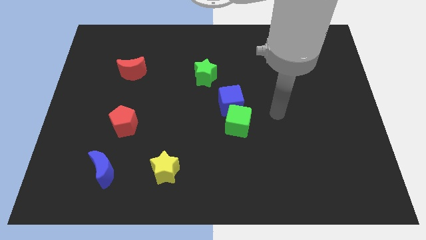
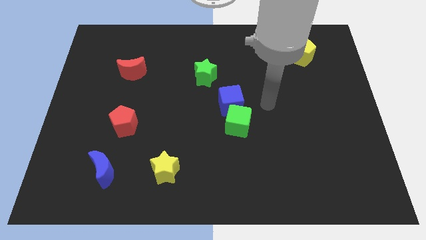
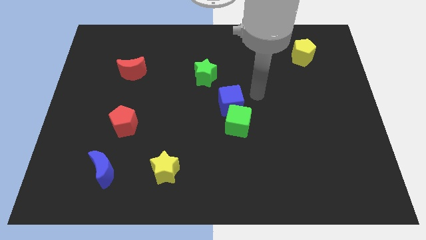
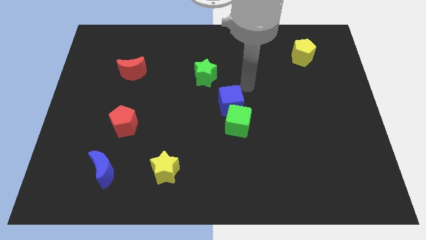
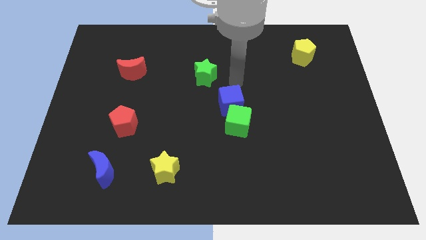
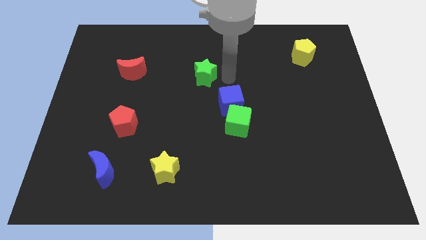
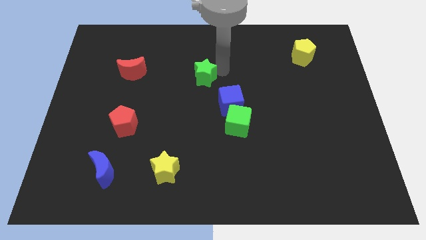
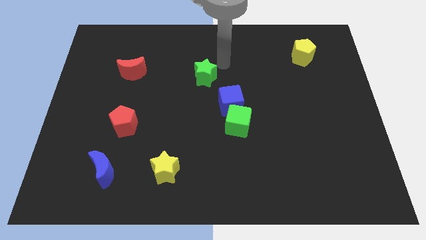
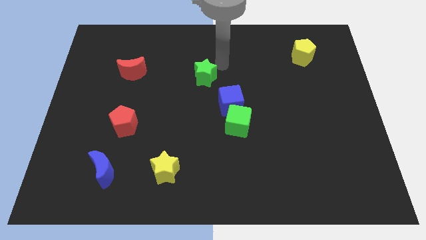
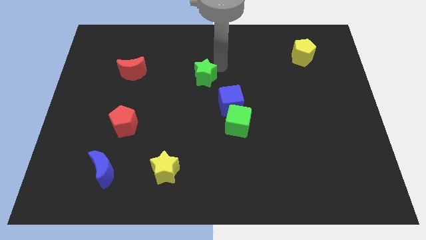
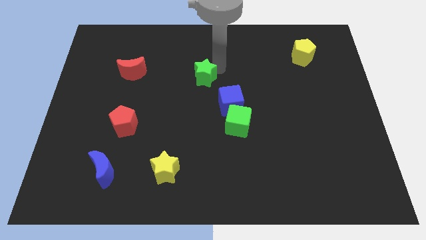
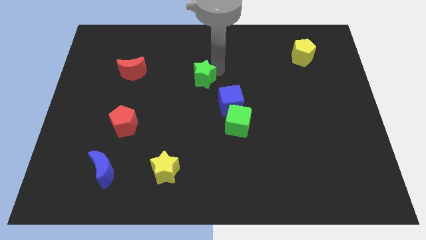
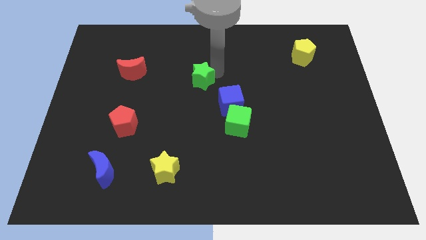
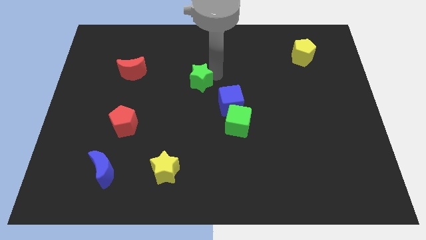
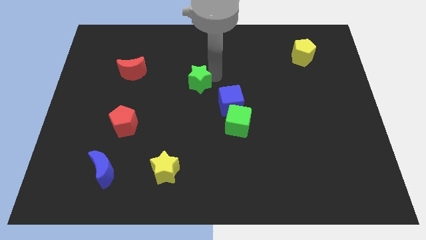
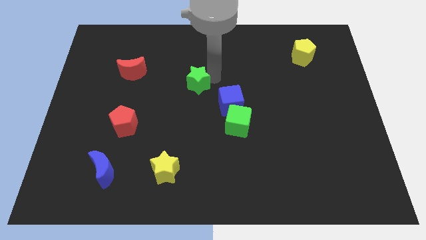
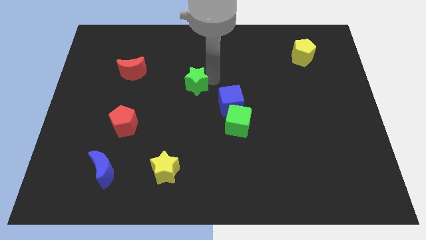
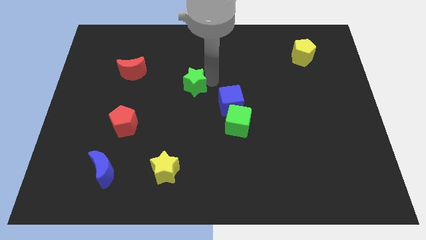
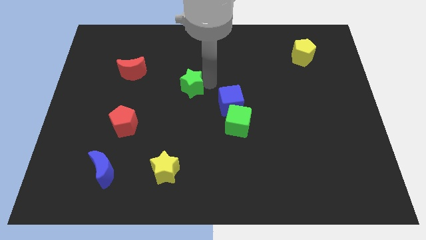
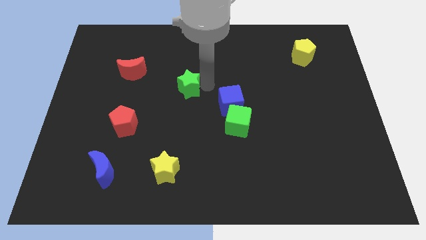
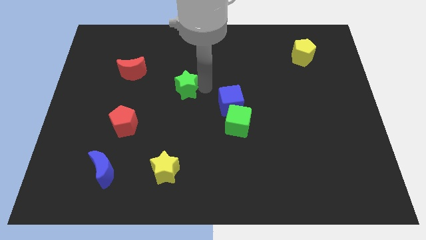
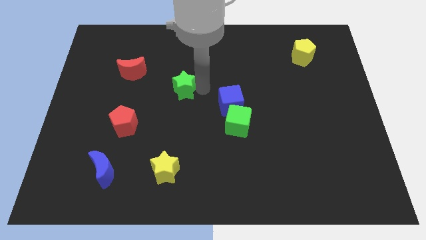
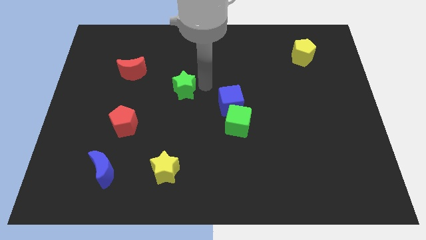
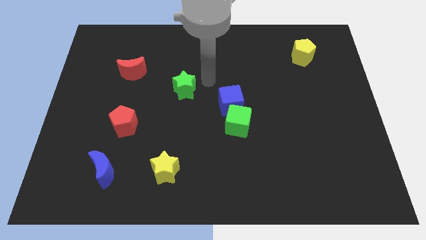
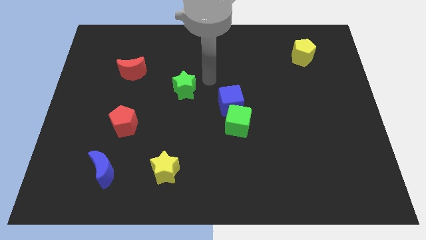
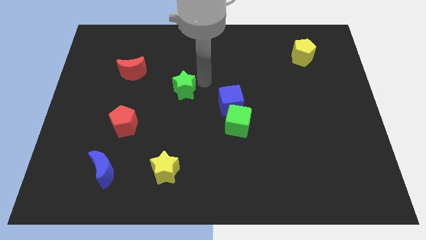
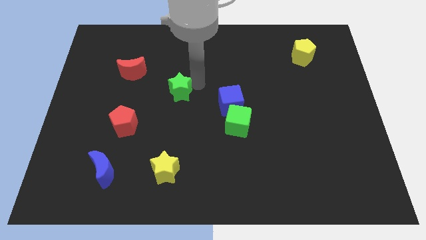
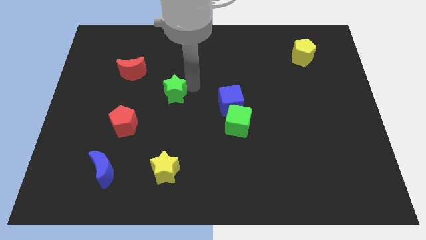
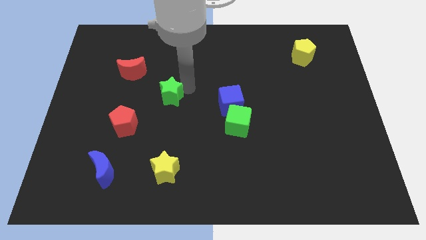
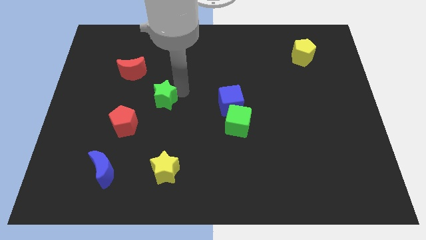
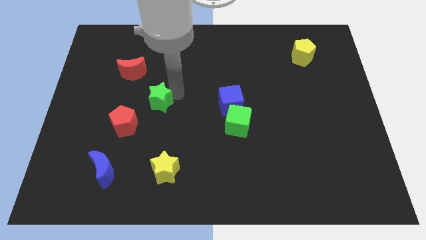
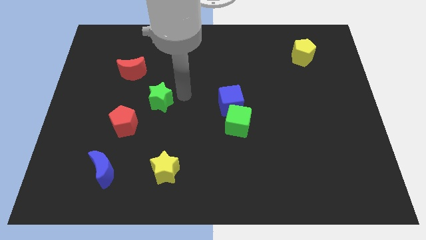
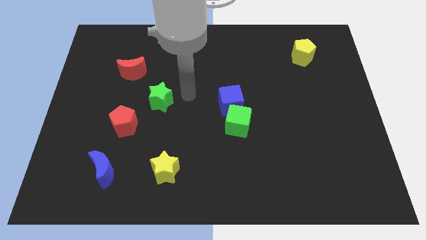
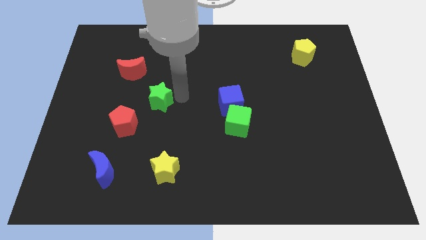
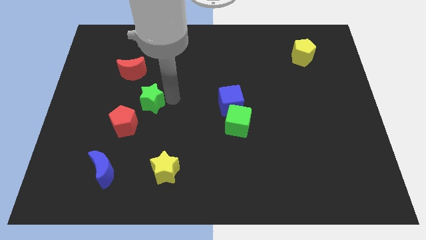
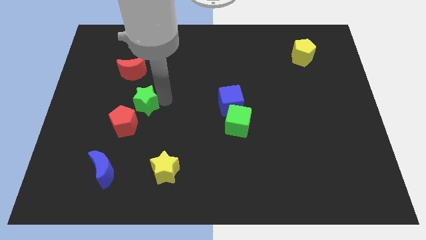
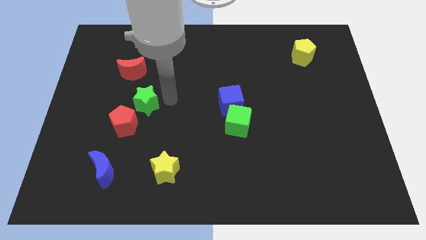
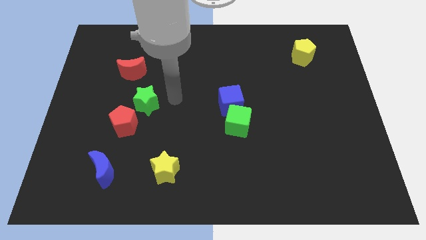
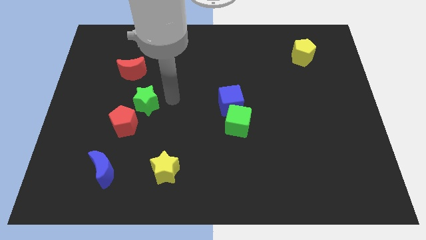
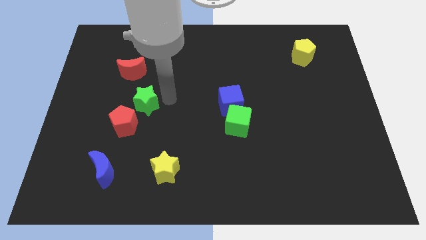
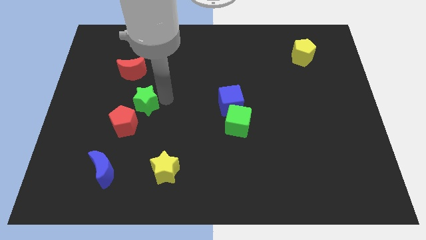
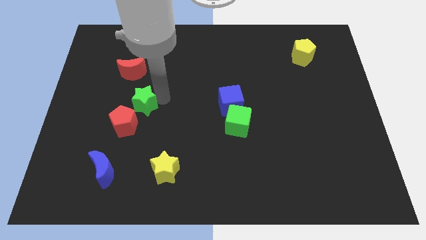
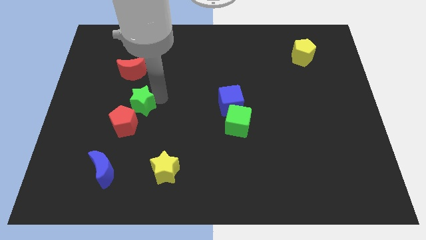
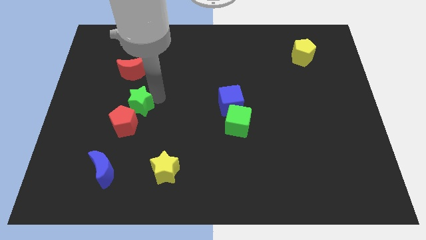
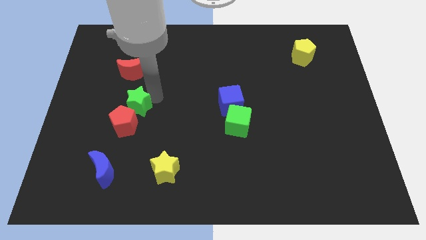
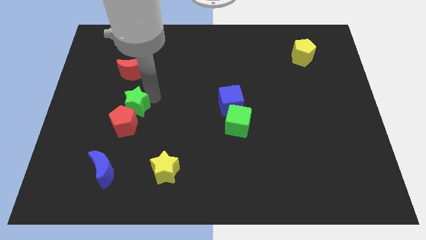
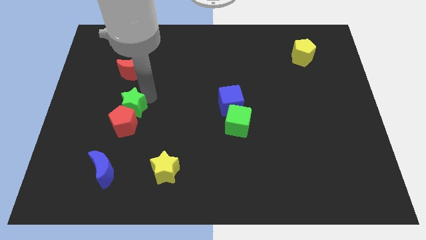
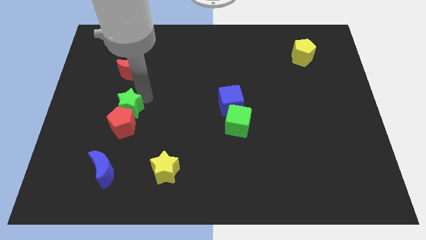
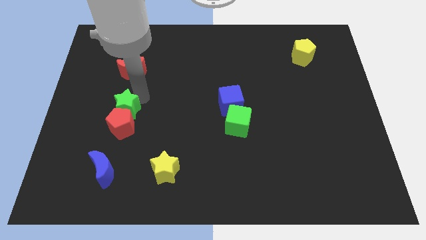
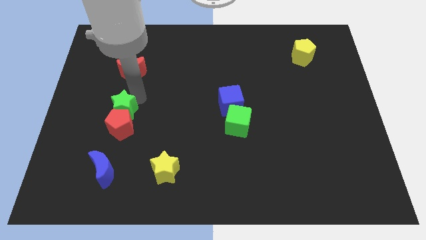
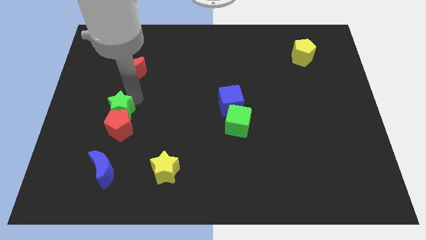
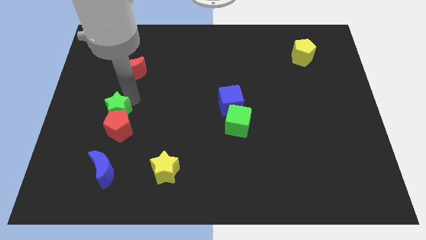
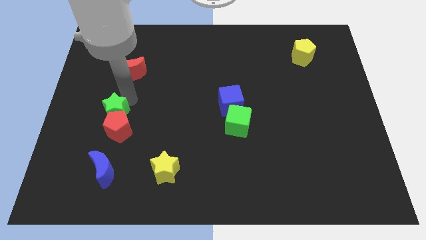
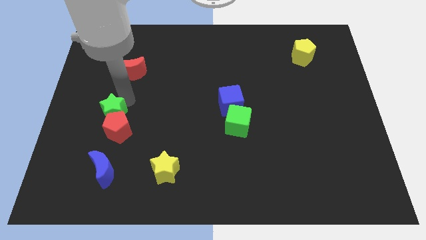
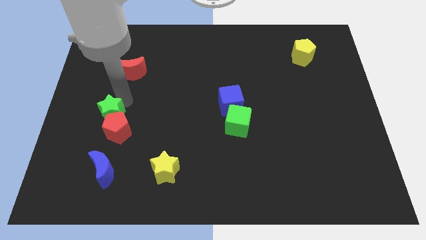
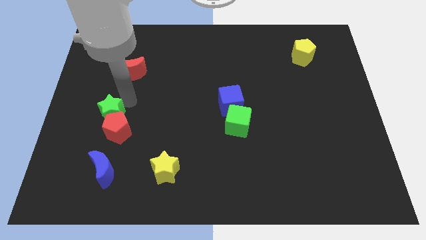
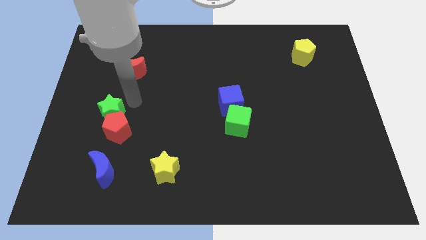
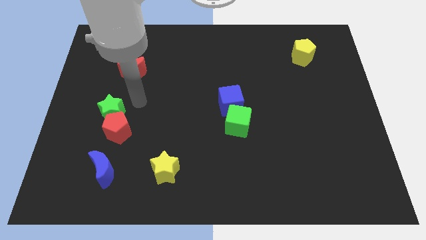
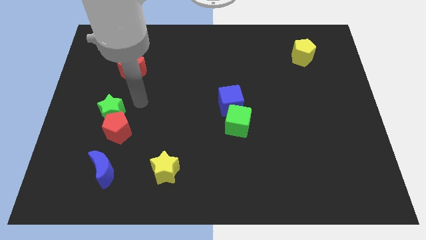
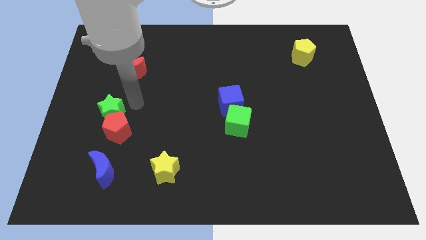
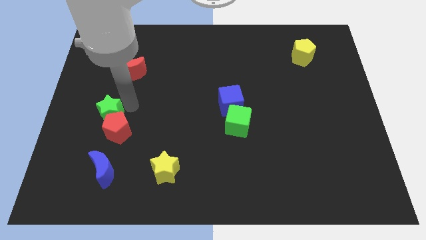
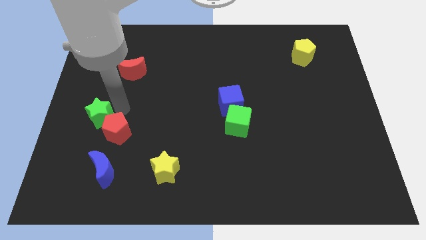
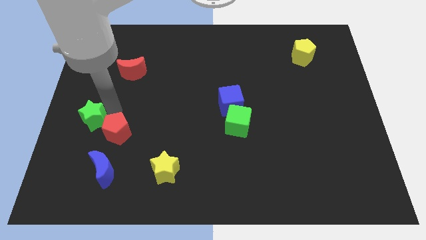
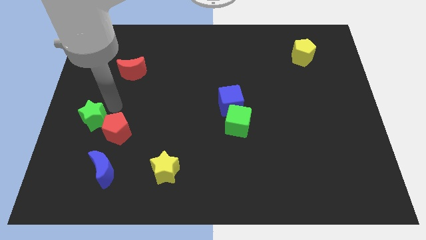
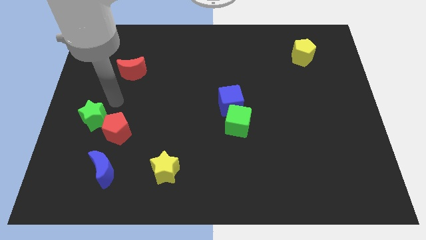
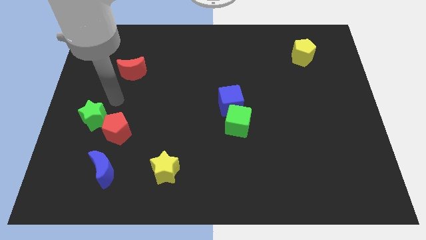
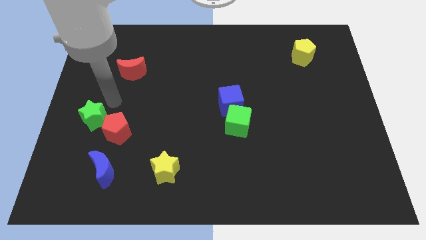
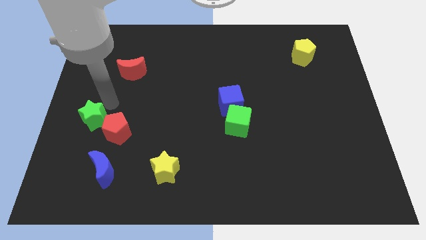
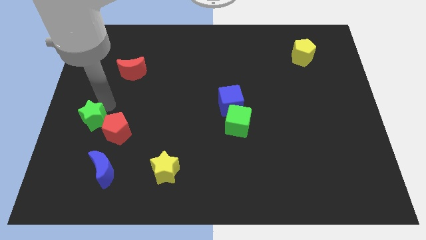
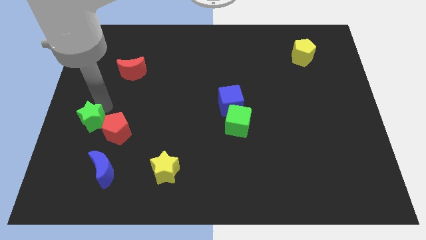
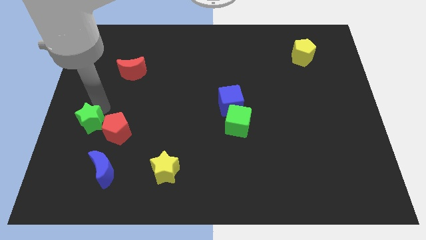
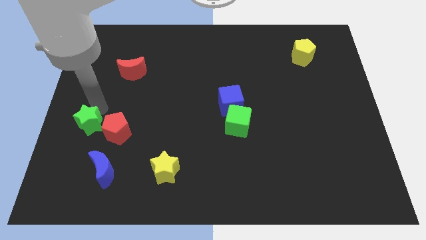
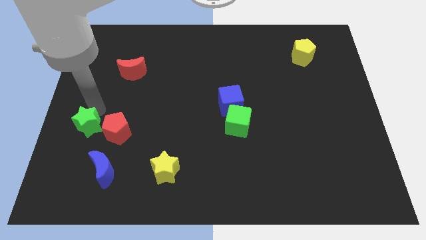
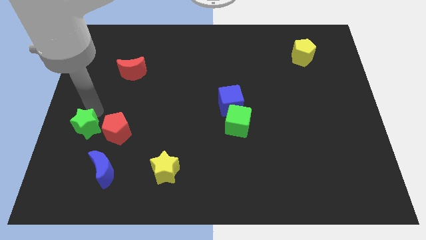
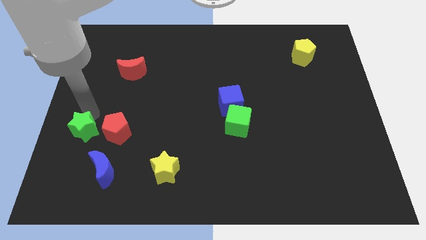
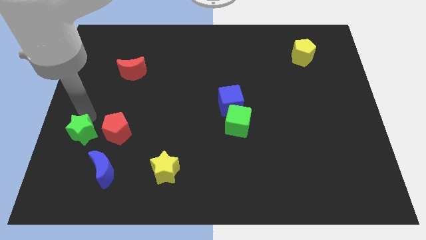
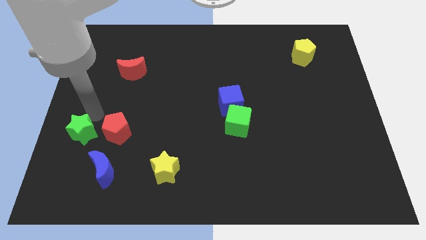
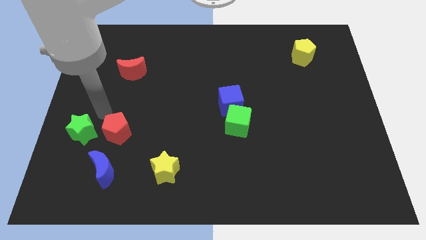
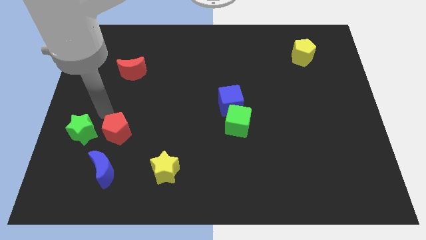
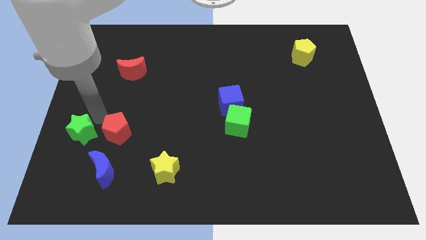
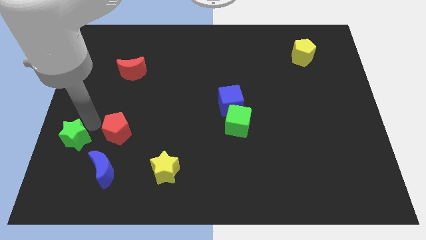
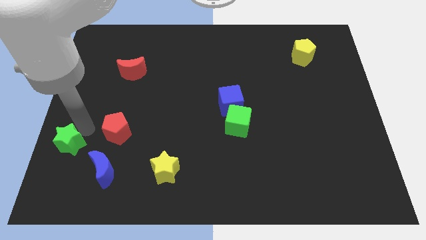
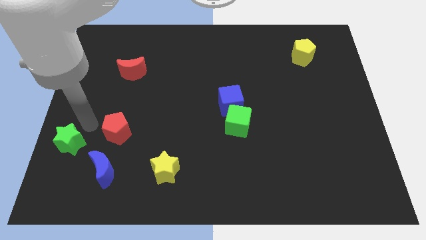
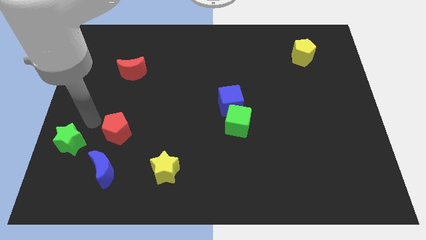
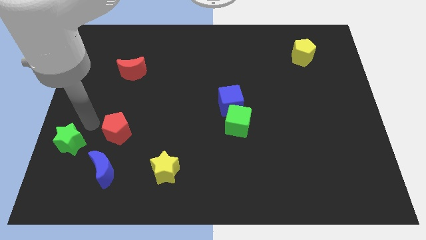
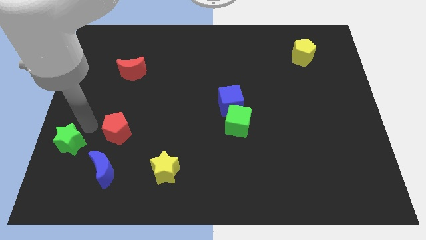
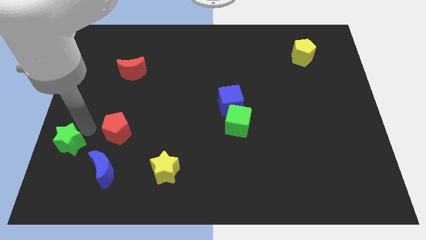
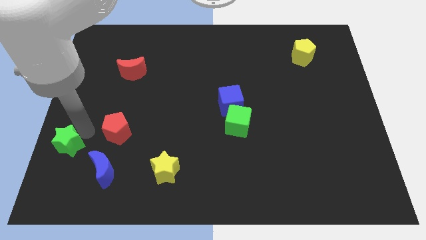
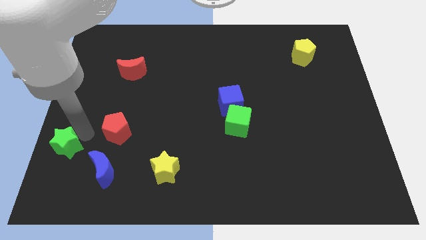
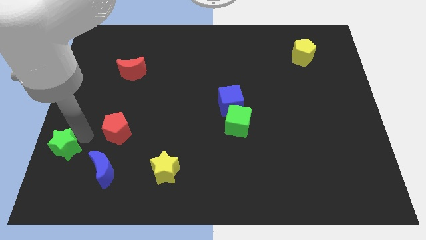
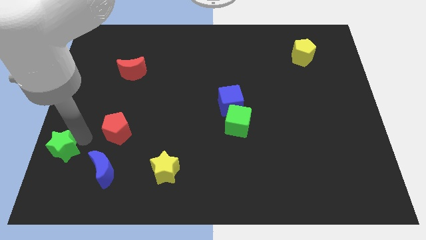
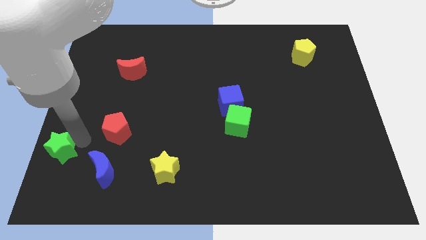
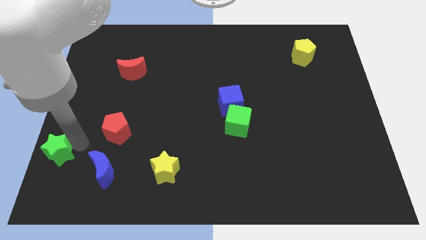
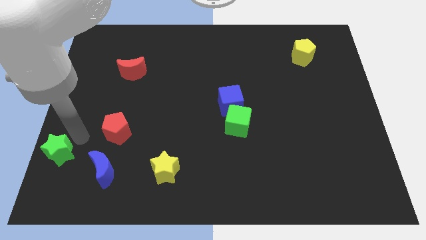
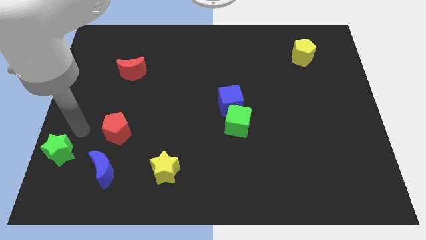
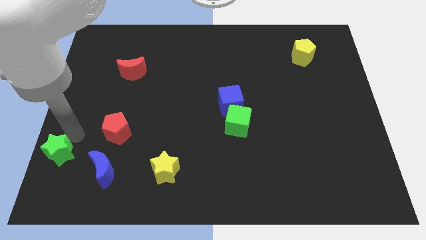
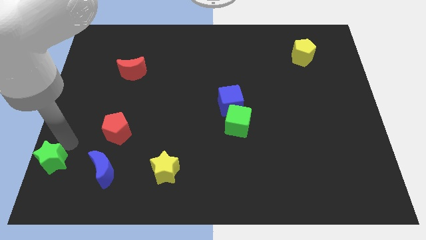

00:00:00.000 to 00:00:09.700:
slide the green star to the lower left corner
